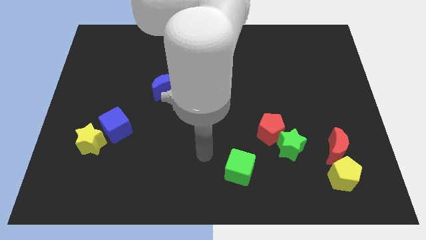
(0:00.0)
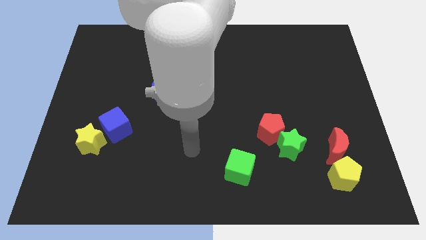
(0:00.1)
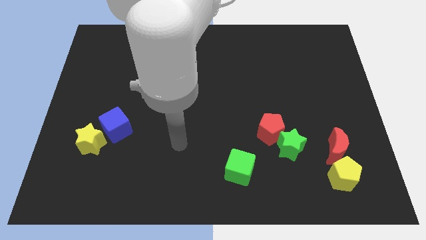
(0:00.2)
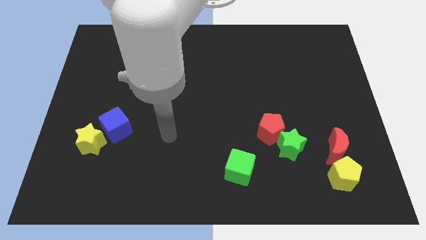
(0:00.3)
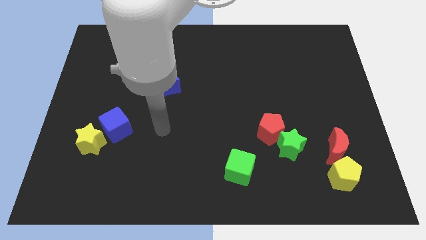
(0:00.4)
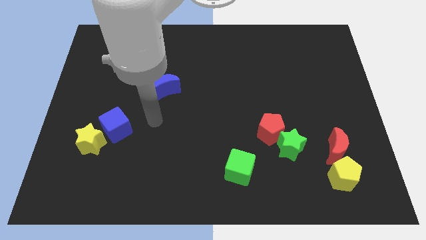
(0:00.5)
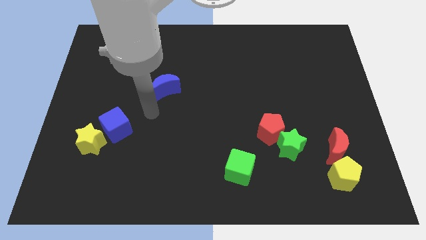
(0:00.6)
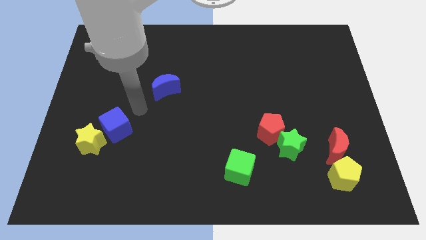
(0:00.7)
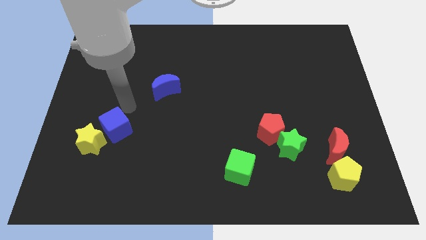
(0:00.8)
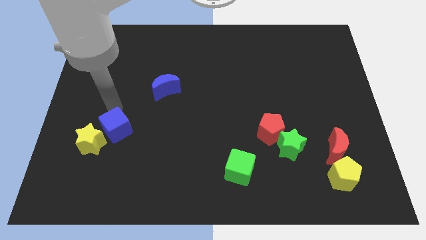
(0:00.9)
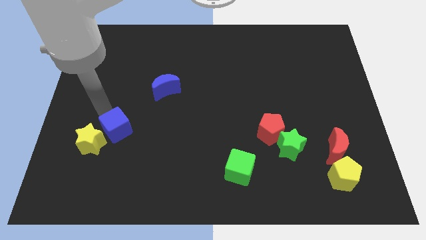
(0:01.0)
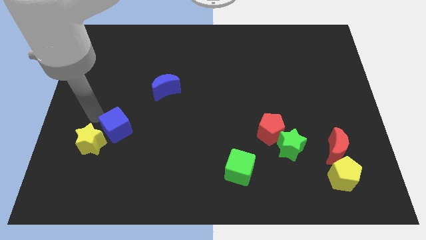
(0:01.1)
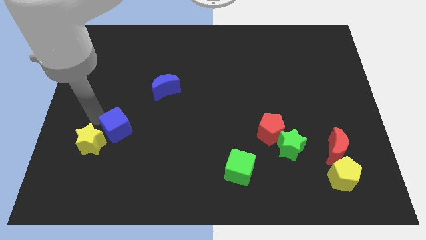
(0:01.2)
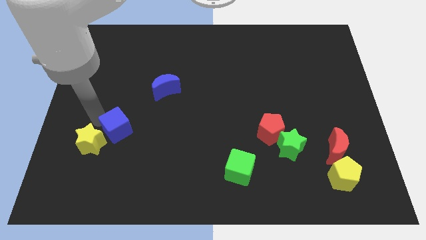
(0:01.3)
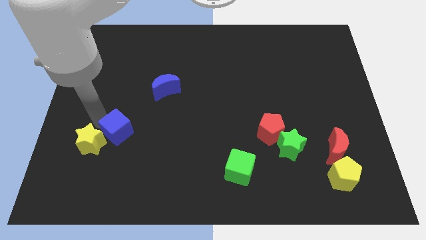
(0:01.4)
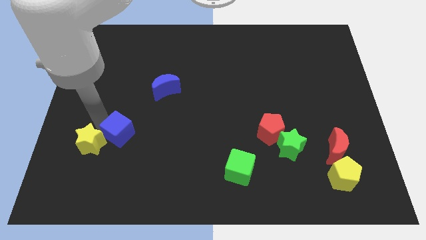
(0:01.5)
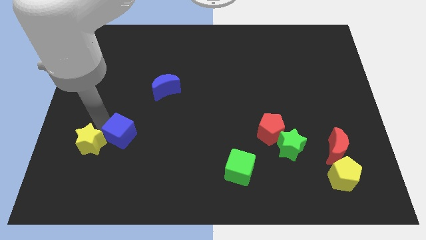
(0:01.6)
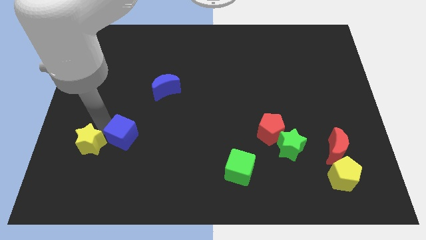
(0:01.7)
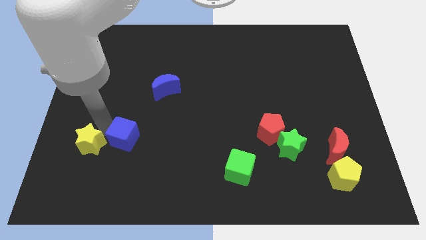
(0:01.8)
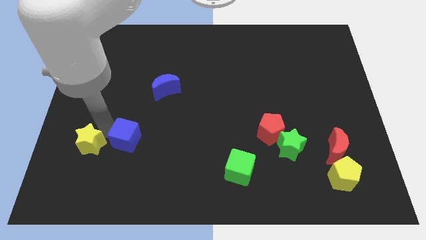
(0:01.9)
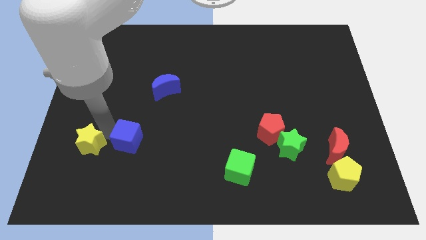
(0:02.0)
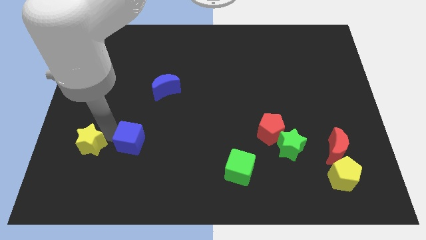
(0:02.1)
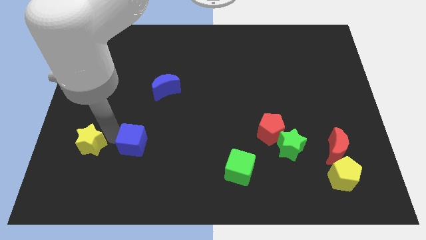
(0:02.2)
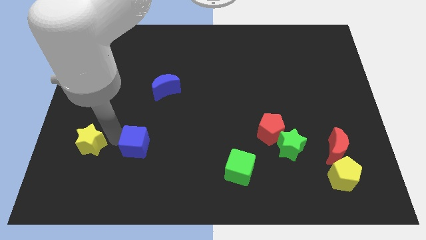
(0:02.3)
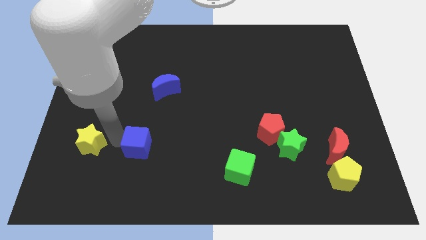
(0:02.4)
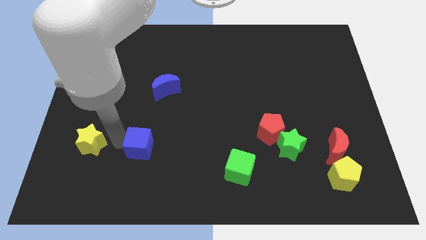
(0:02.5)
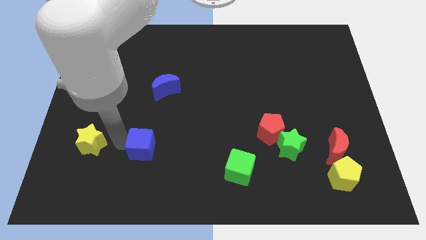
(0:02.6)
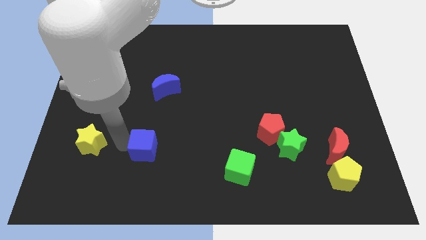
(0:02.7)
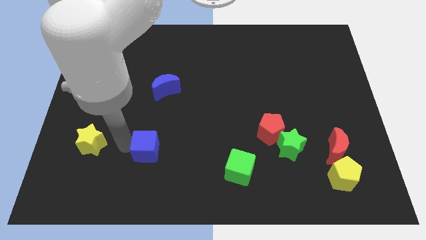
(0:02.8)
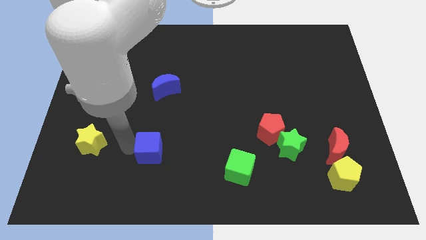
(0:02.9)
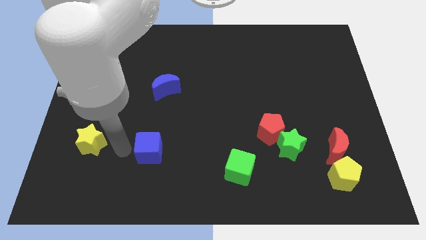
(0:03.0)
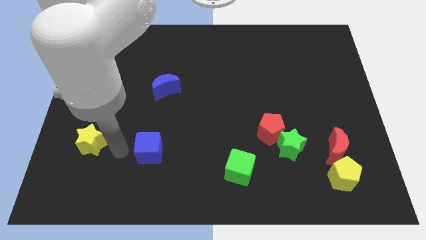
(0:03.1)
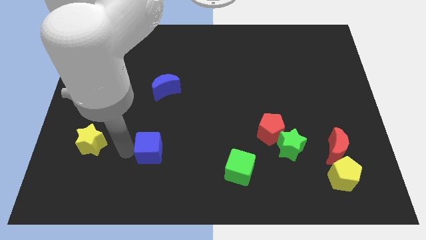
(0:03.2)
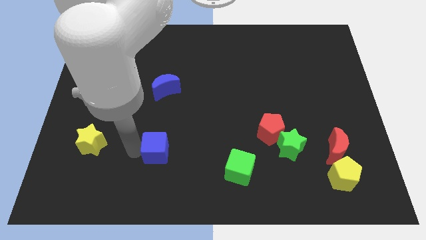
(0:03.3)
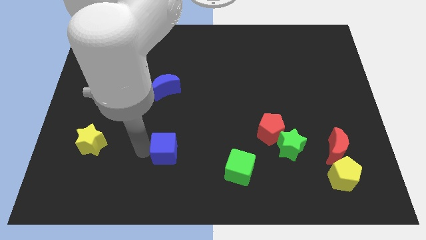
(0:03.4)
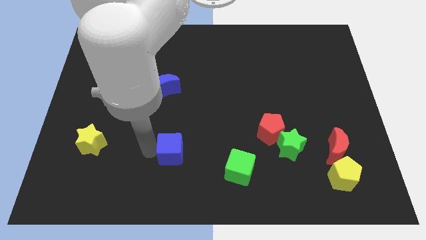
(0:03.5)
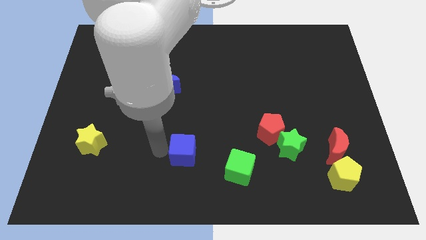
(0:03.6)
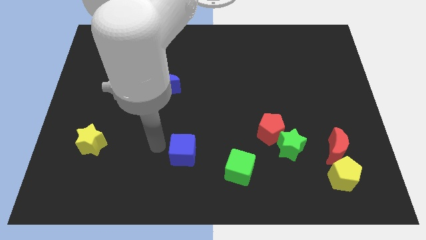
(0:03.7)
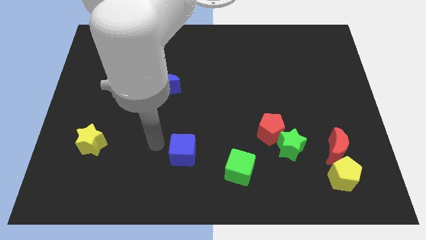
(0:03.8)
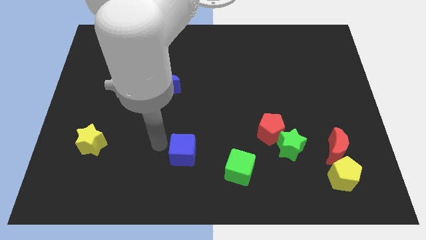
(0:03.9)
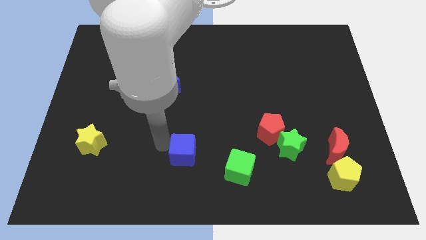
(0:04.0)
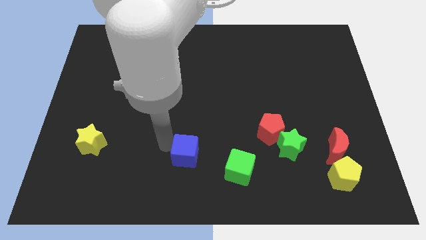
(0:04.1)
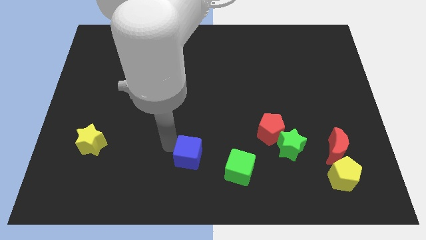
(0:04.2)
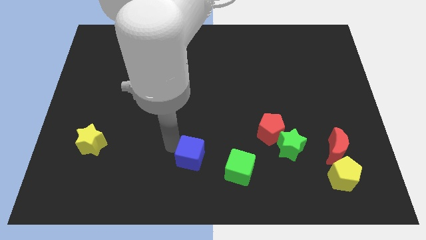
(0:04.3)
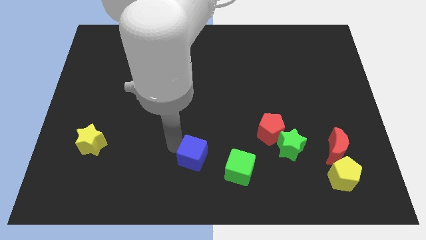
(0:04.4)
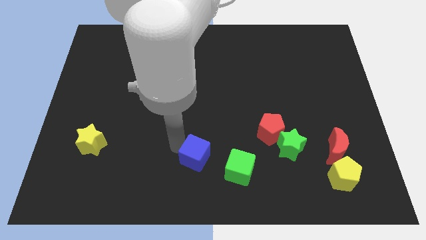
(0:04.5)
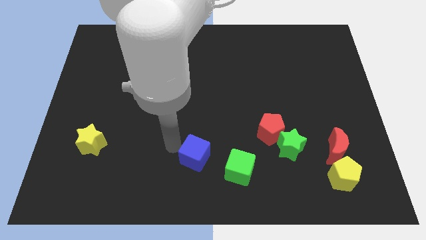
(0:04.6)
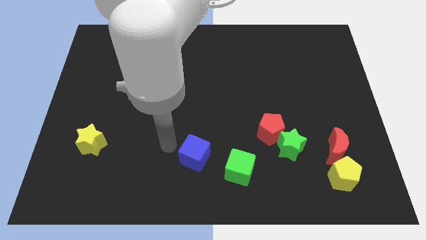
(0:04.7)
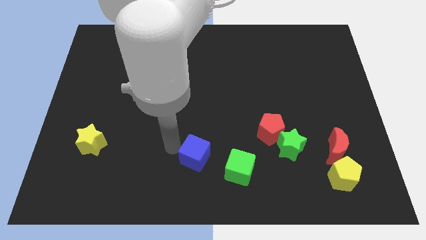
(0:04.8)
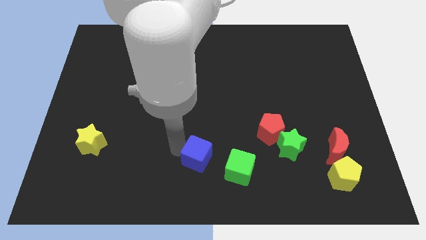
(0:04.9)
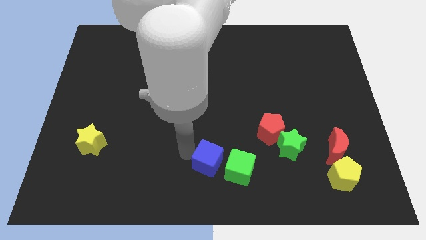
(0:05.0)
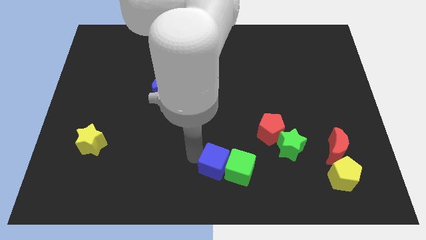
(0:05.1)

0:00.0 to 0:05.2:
put the blue cube next to the green cube

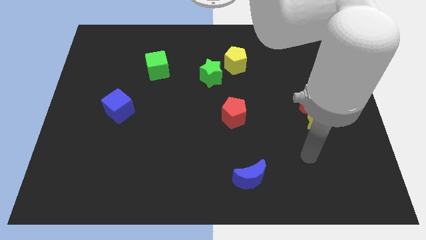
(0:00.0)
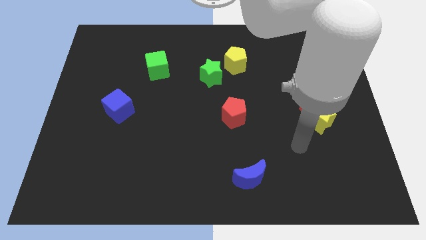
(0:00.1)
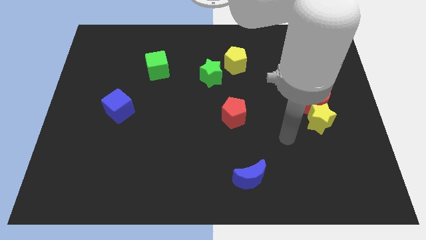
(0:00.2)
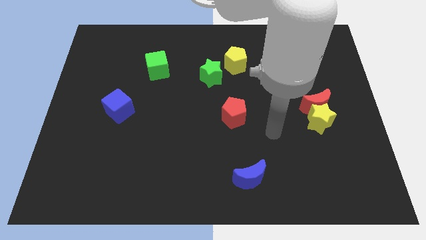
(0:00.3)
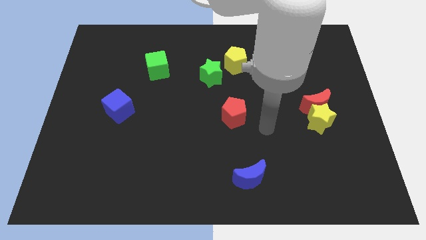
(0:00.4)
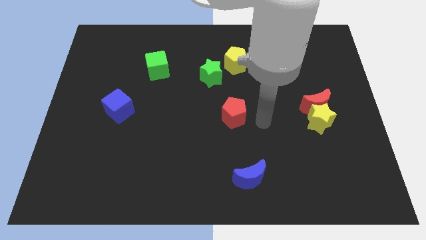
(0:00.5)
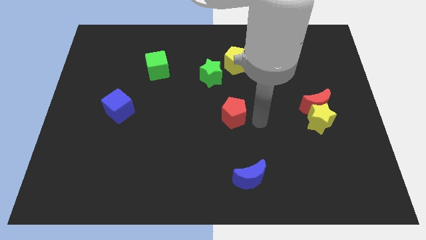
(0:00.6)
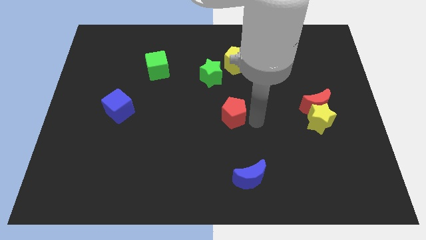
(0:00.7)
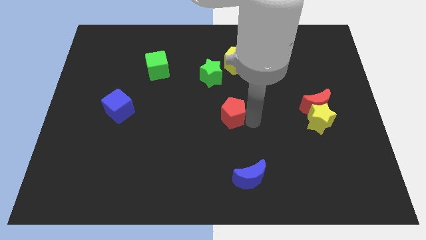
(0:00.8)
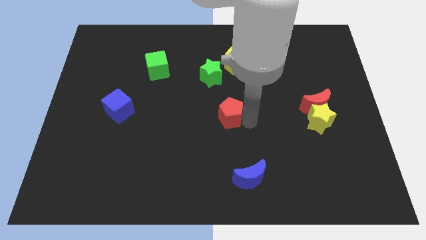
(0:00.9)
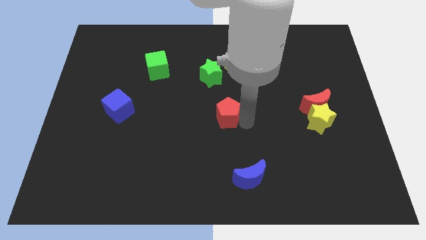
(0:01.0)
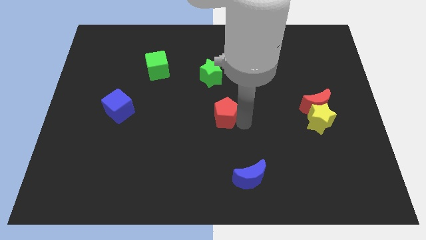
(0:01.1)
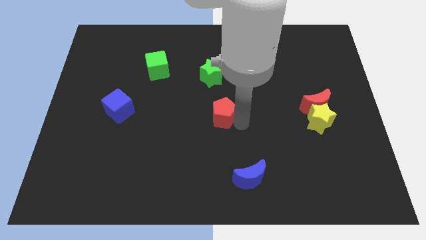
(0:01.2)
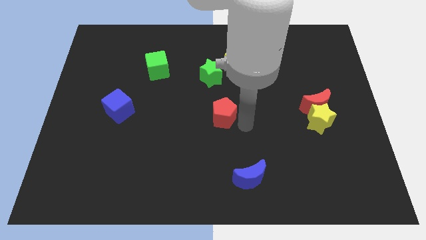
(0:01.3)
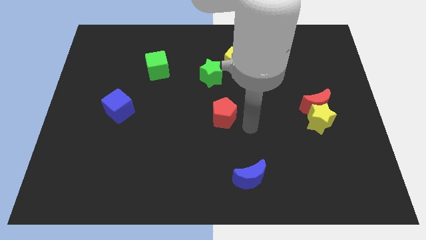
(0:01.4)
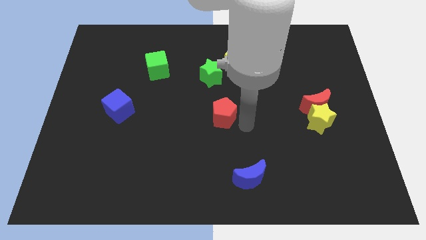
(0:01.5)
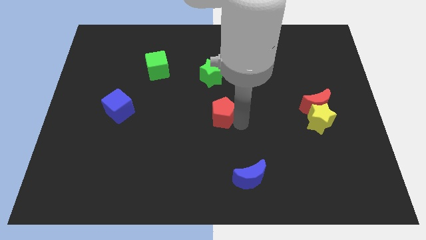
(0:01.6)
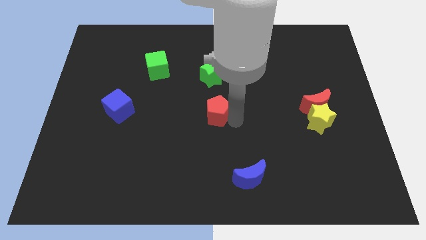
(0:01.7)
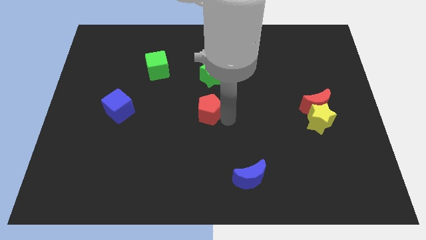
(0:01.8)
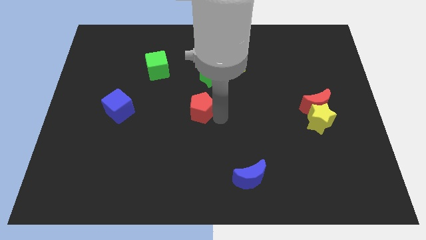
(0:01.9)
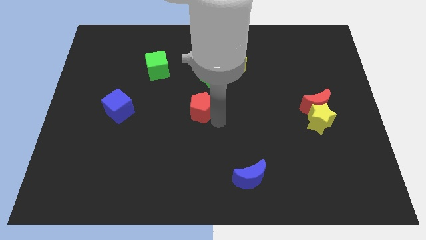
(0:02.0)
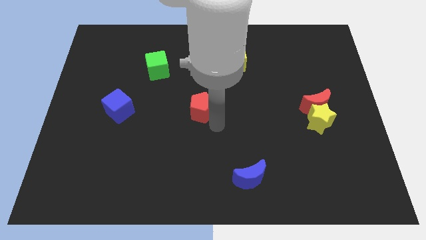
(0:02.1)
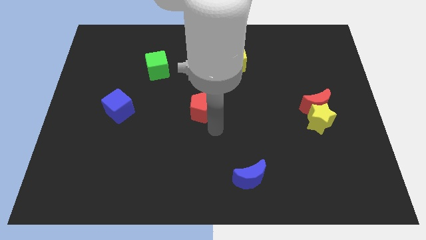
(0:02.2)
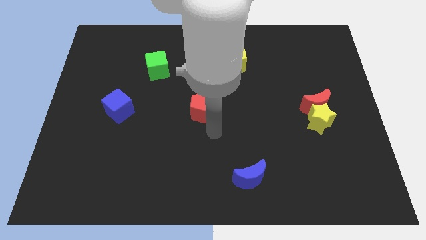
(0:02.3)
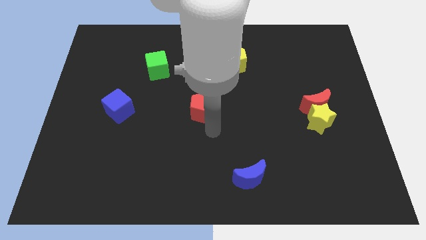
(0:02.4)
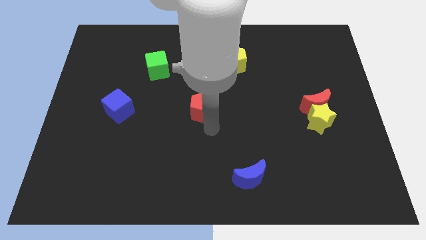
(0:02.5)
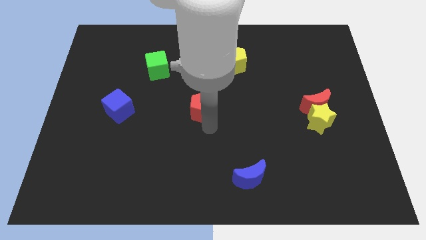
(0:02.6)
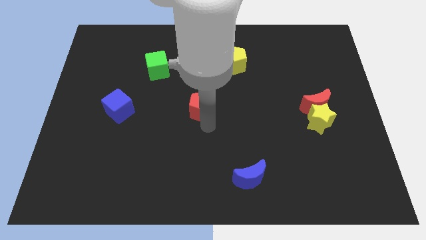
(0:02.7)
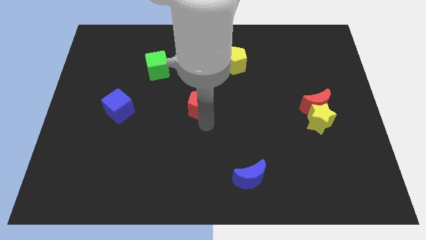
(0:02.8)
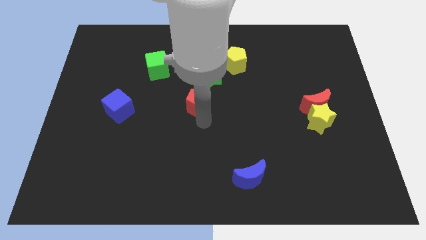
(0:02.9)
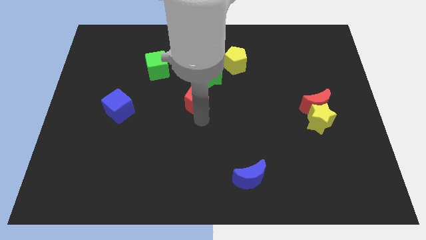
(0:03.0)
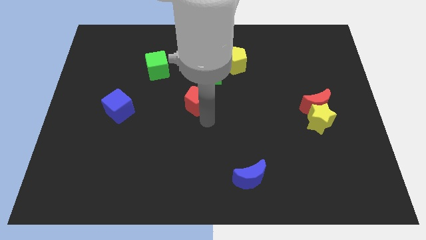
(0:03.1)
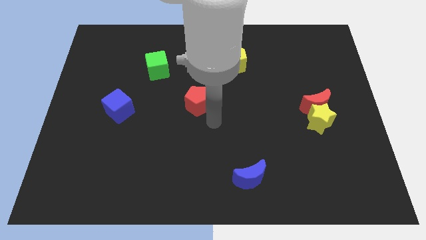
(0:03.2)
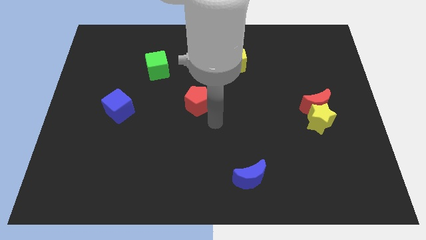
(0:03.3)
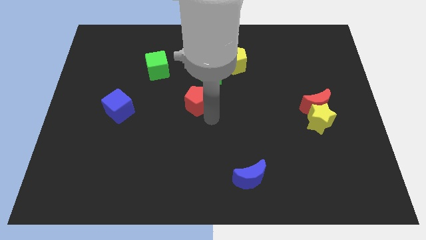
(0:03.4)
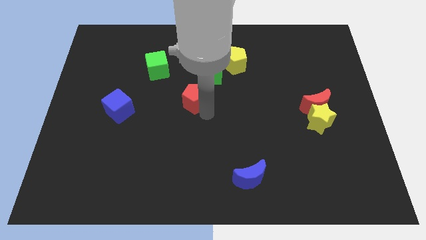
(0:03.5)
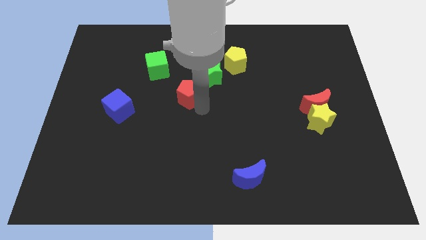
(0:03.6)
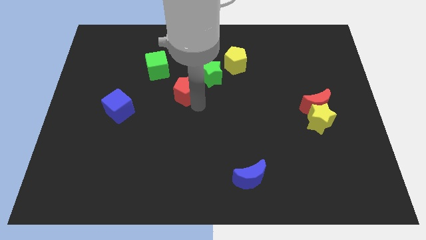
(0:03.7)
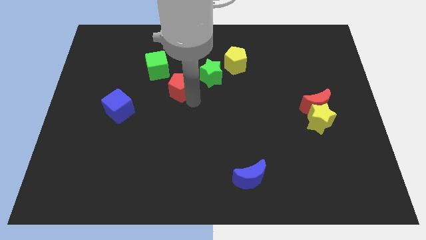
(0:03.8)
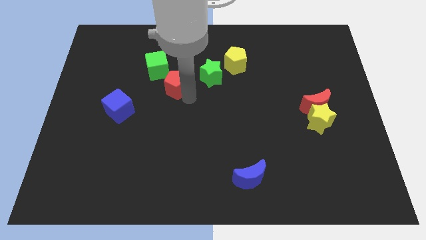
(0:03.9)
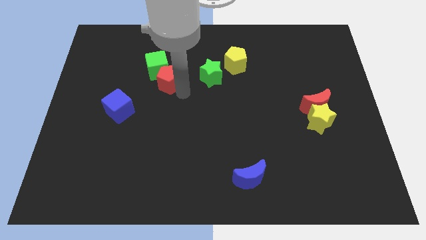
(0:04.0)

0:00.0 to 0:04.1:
move the red pentagon to the green cube
